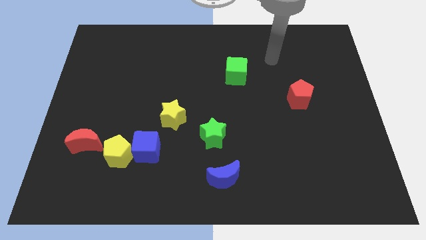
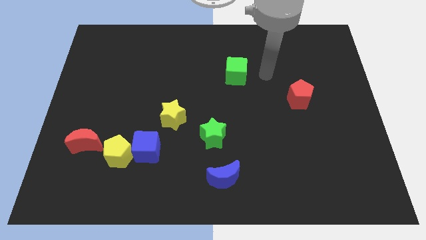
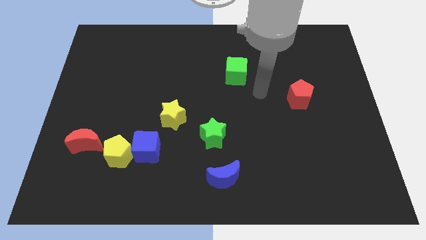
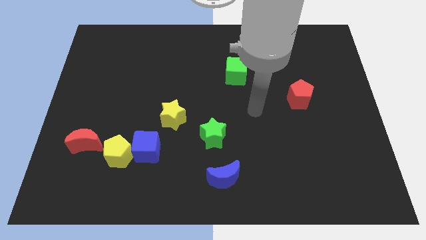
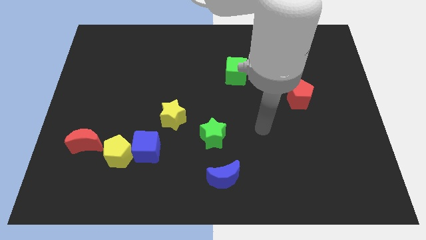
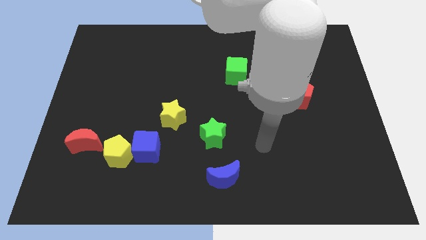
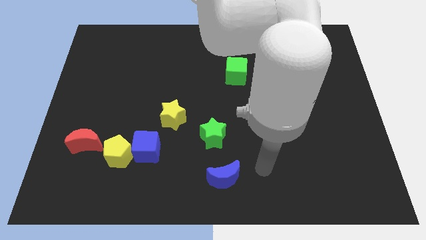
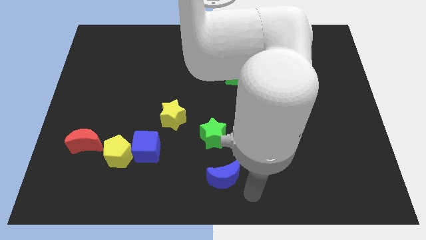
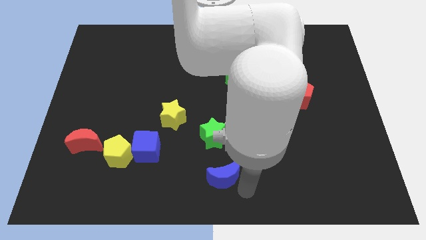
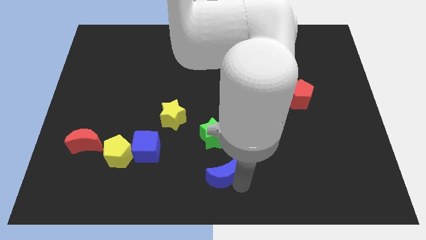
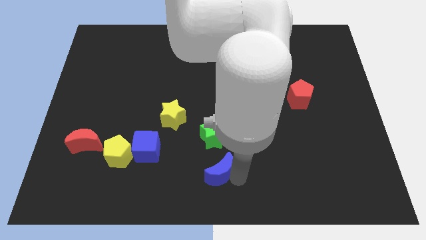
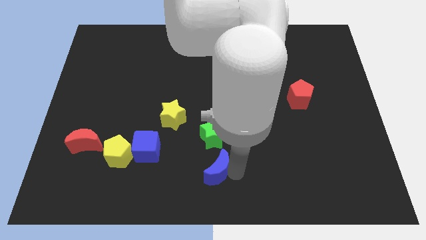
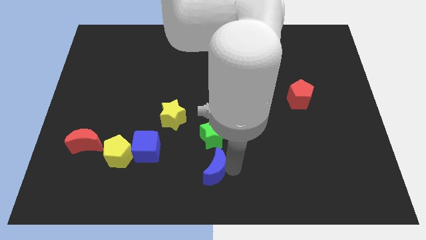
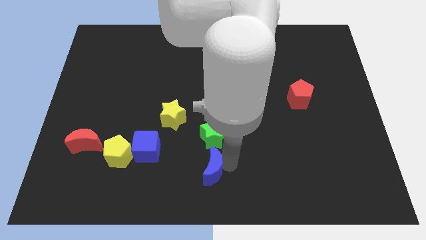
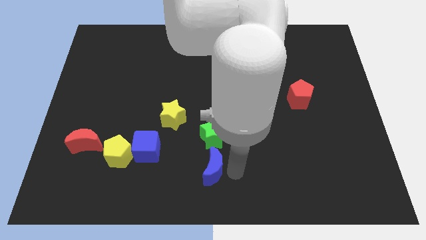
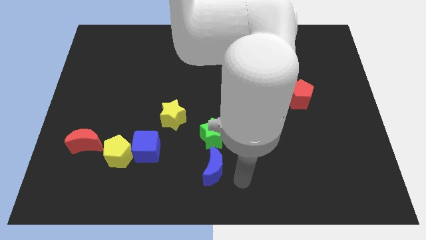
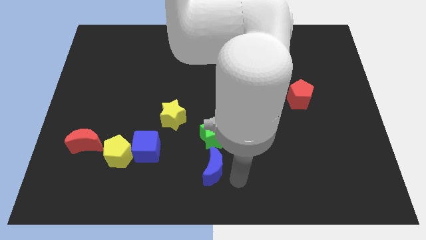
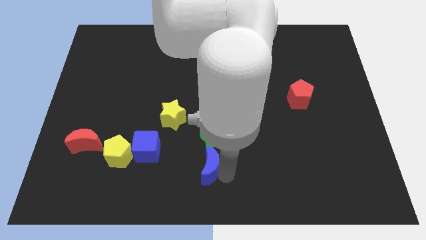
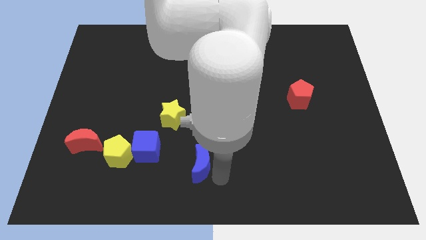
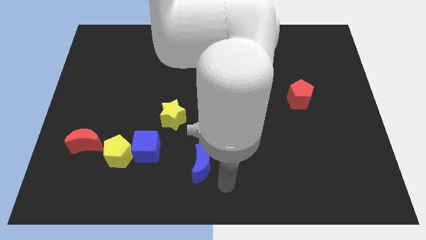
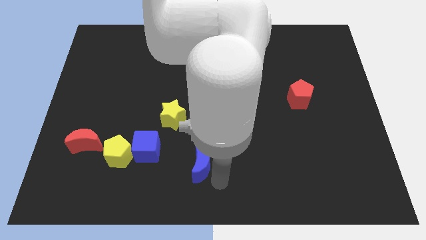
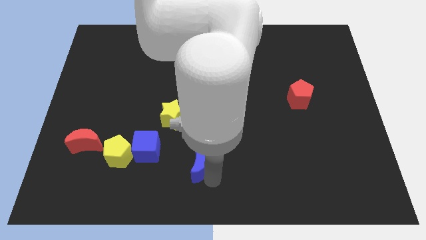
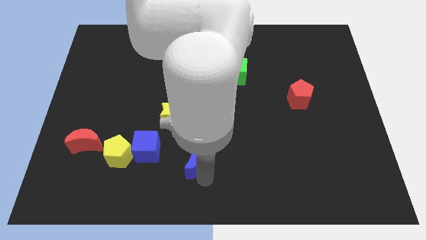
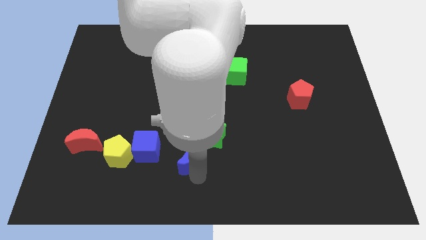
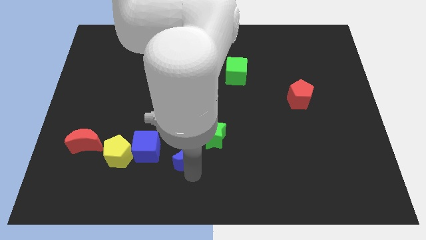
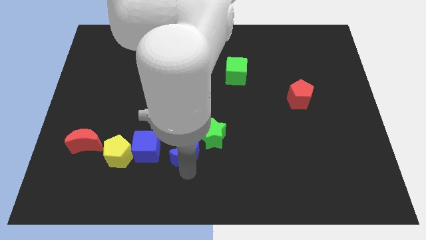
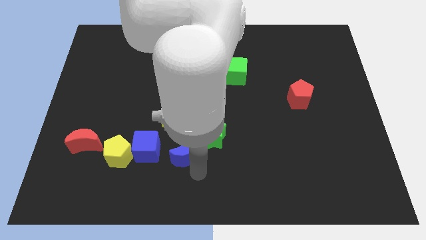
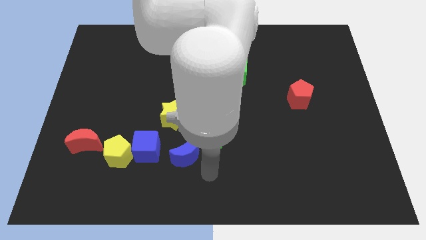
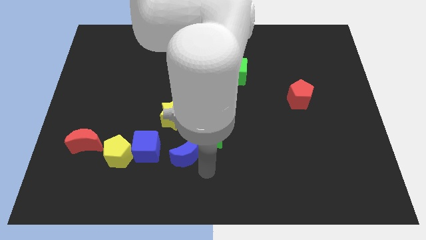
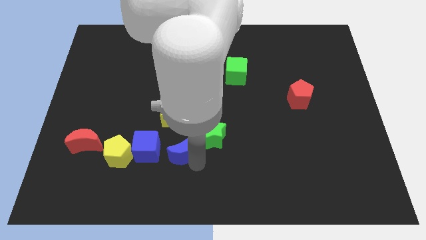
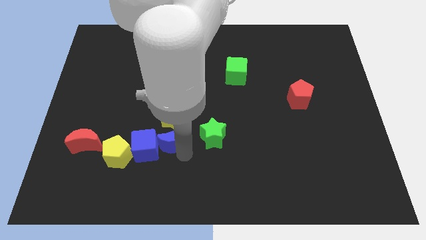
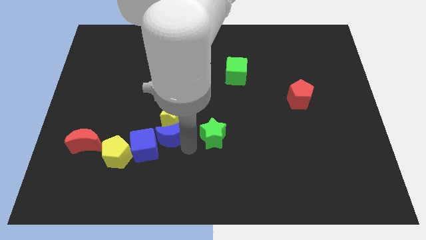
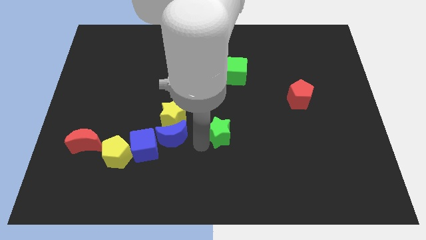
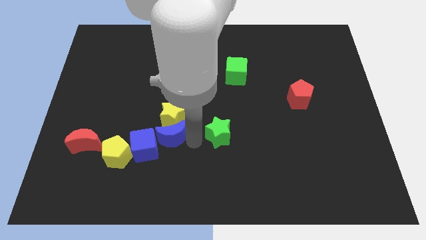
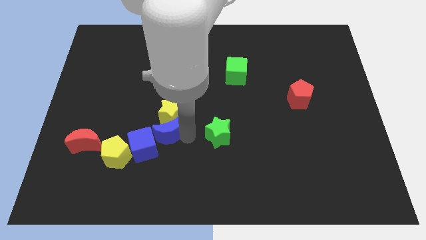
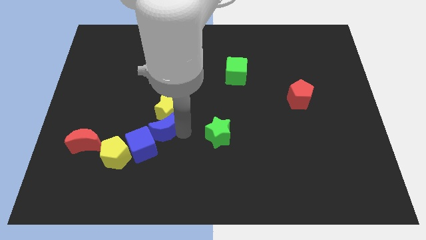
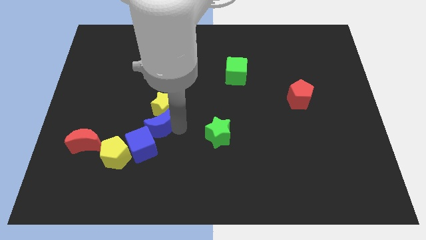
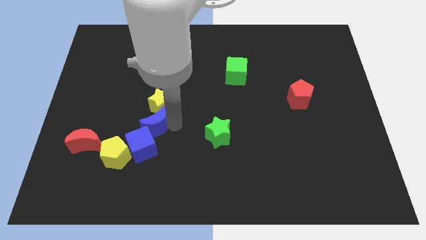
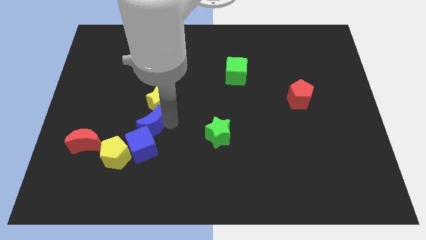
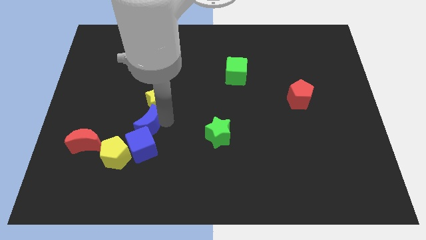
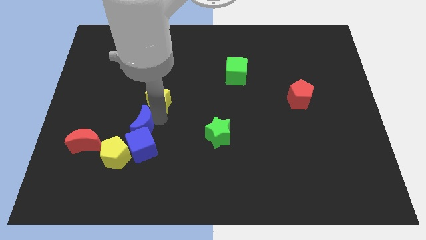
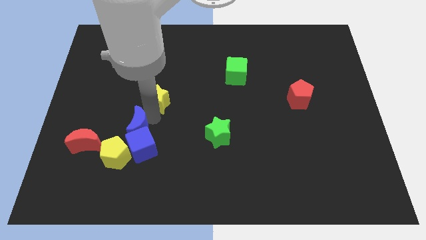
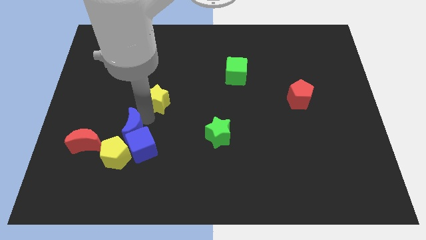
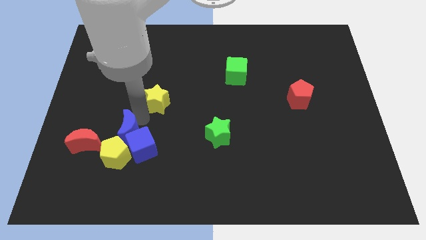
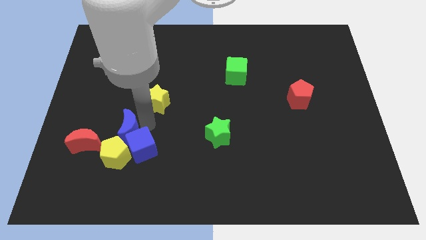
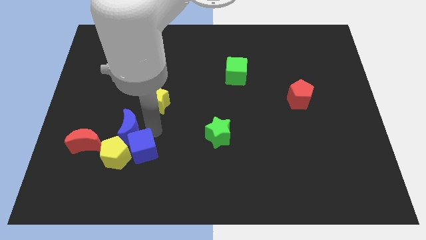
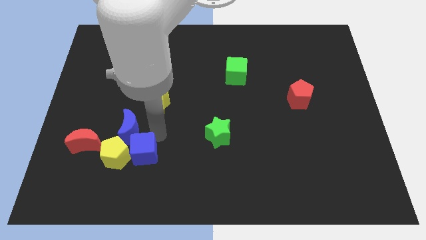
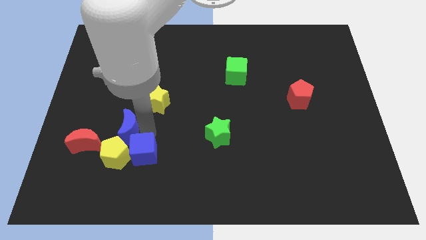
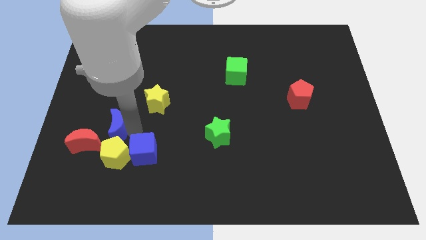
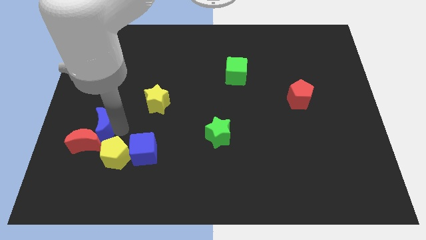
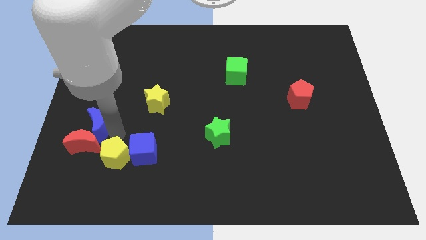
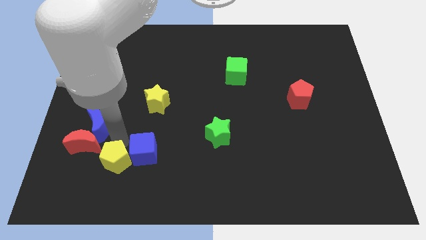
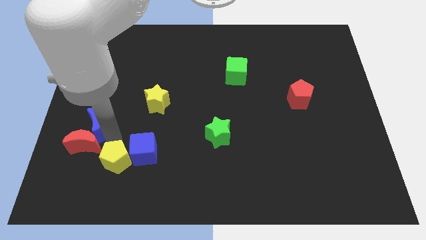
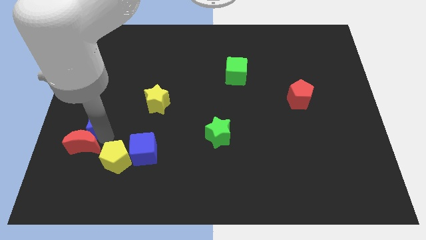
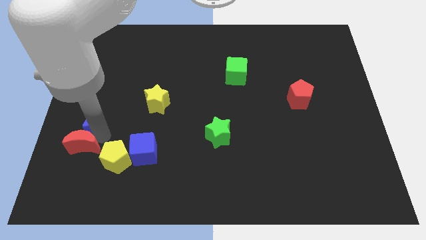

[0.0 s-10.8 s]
slide the blue moon to the left side
